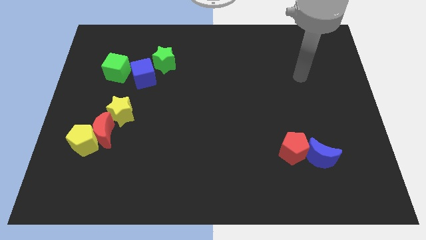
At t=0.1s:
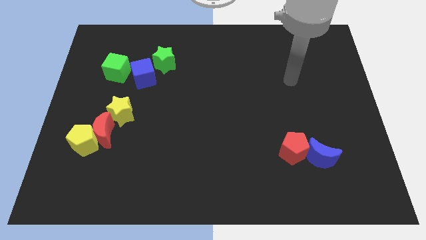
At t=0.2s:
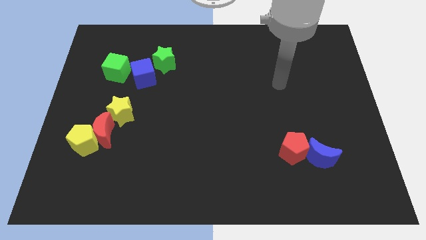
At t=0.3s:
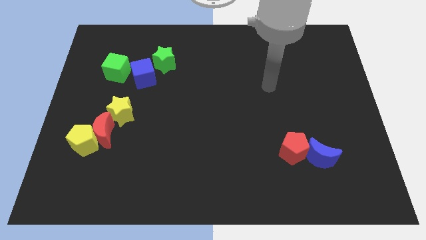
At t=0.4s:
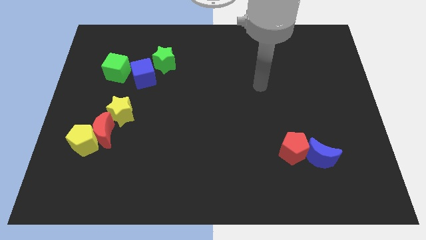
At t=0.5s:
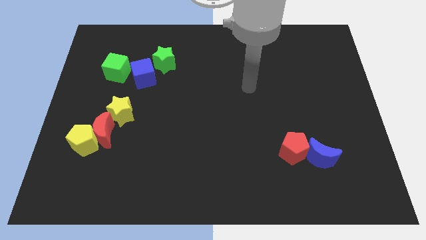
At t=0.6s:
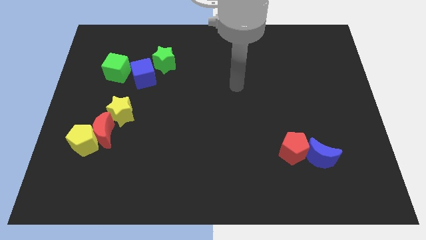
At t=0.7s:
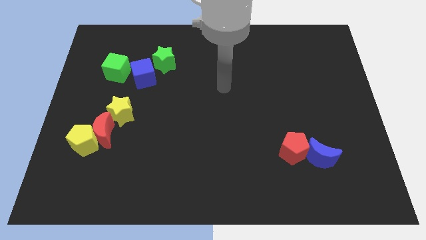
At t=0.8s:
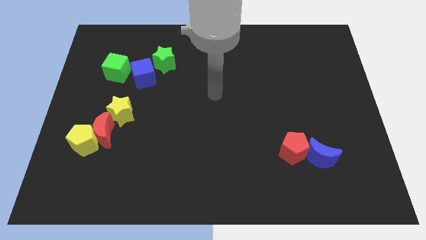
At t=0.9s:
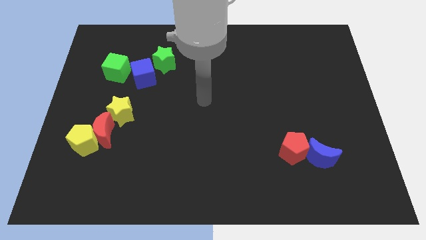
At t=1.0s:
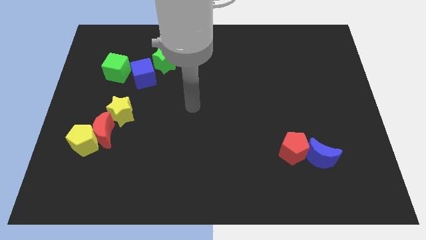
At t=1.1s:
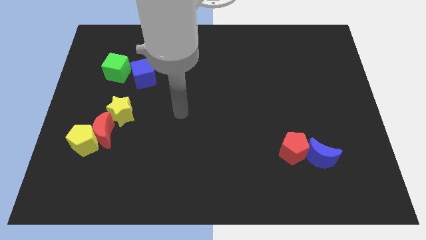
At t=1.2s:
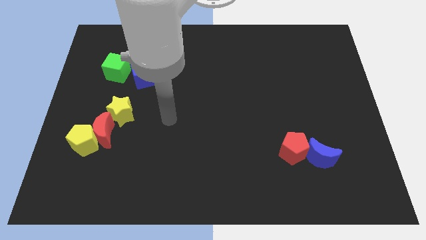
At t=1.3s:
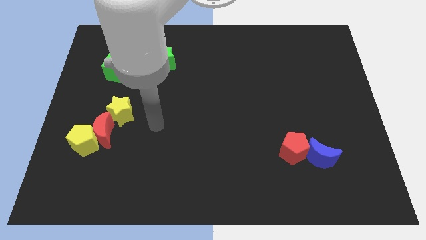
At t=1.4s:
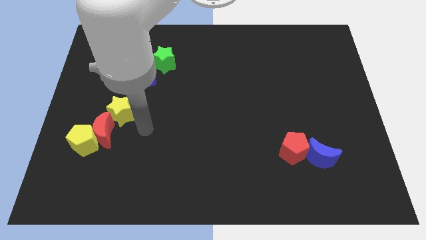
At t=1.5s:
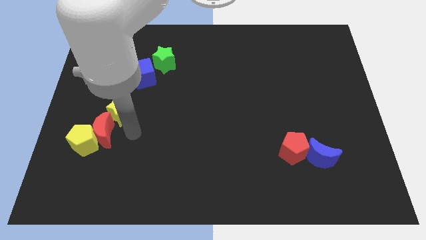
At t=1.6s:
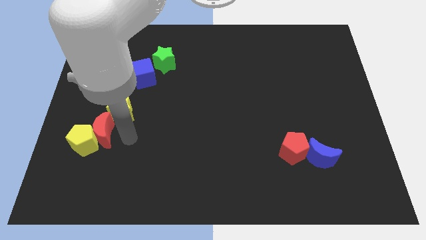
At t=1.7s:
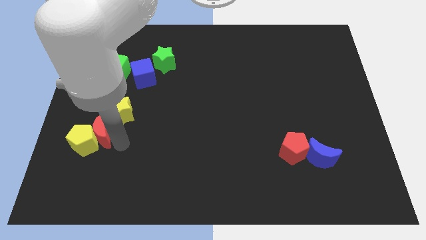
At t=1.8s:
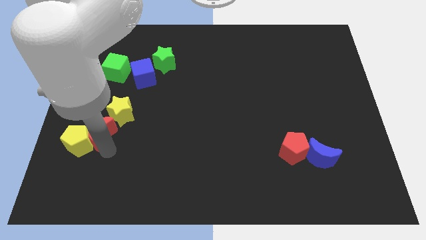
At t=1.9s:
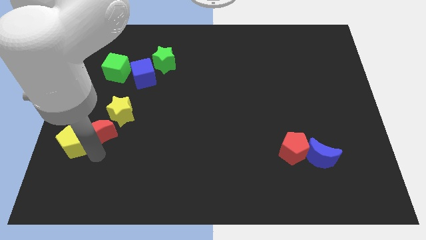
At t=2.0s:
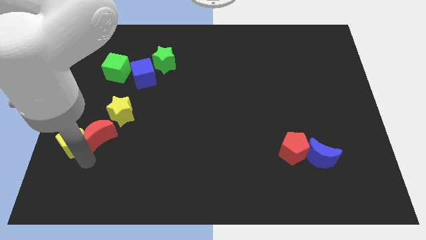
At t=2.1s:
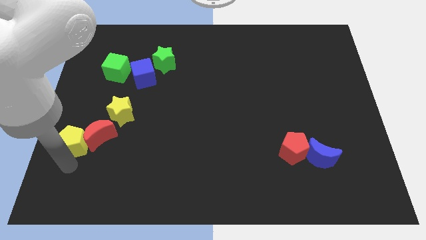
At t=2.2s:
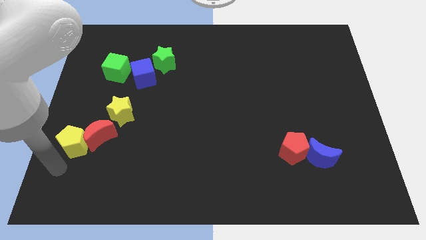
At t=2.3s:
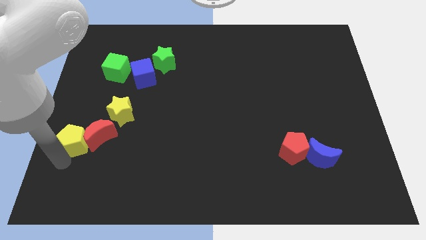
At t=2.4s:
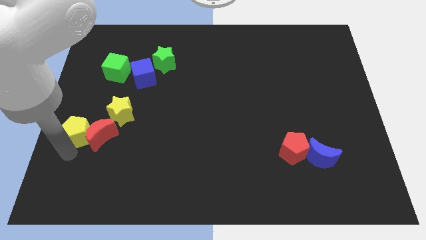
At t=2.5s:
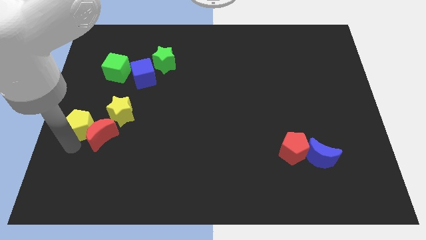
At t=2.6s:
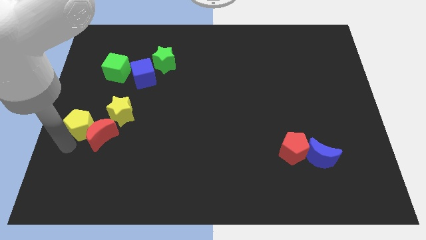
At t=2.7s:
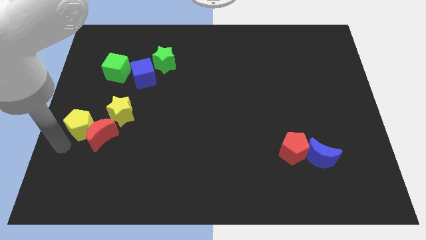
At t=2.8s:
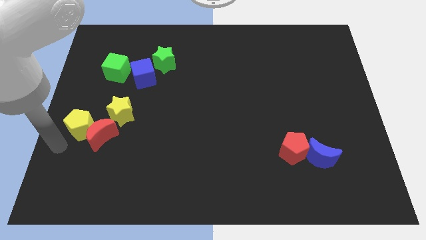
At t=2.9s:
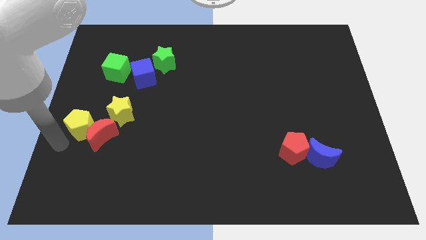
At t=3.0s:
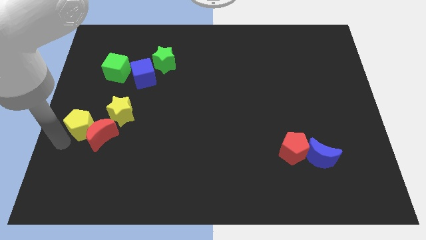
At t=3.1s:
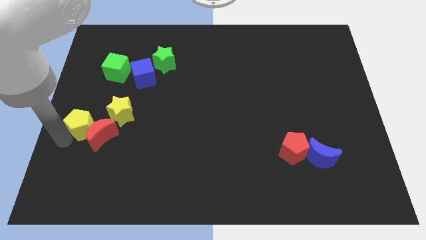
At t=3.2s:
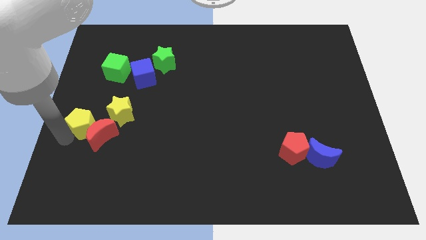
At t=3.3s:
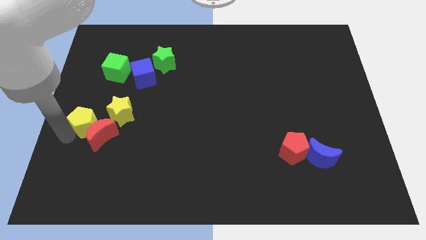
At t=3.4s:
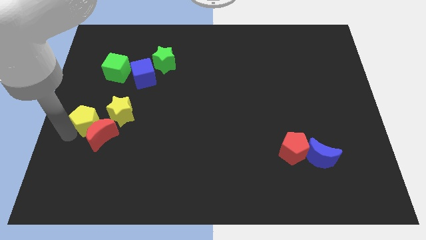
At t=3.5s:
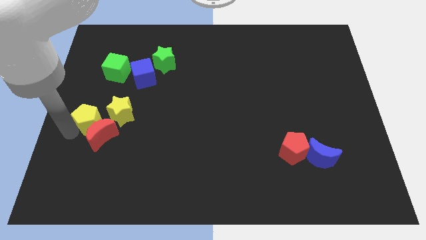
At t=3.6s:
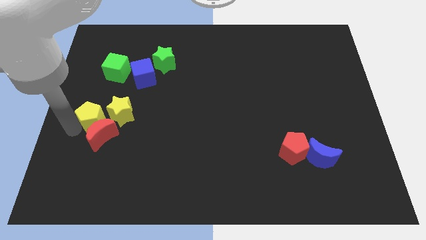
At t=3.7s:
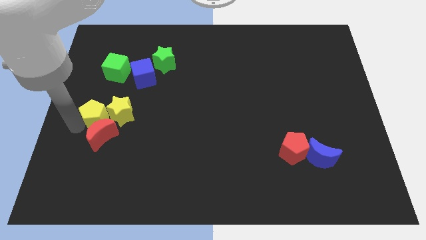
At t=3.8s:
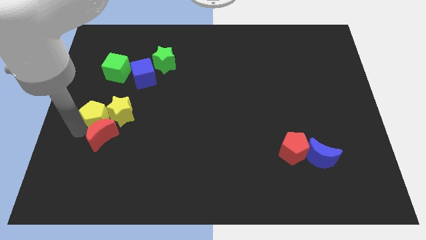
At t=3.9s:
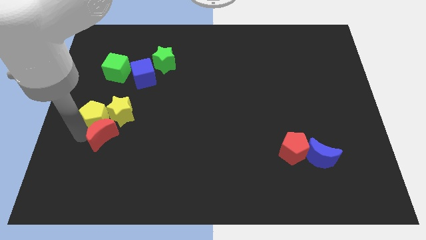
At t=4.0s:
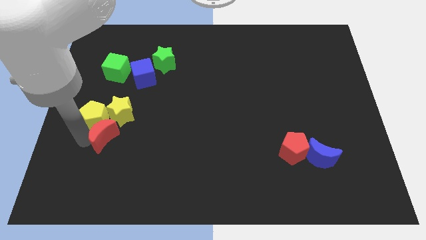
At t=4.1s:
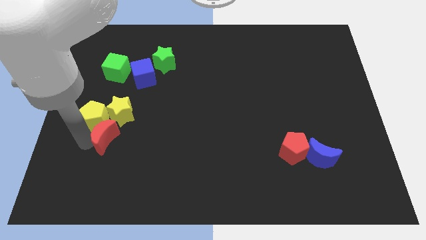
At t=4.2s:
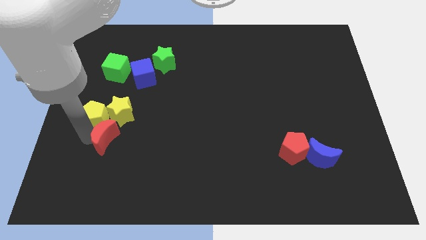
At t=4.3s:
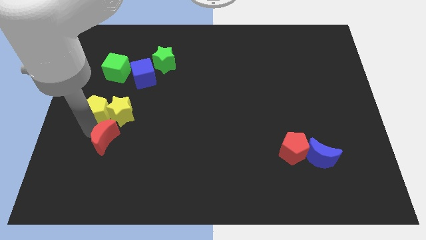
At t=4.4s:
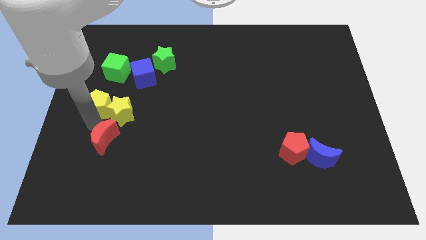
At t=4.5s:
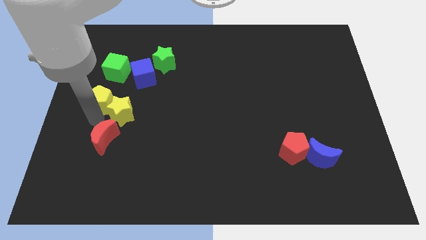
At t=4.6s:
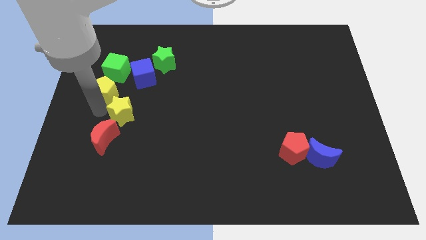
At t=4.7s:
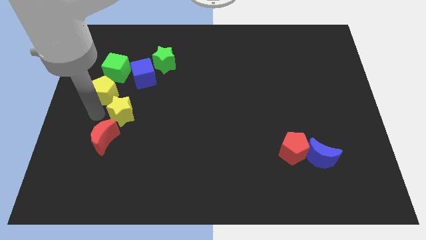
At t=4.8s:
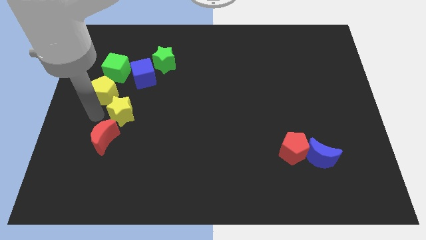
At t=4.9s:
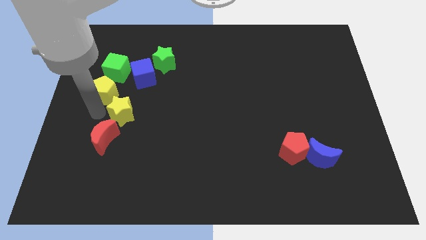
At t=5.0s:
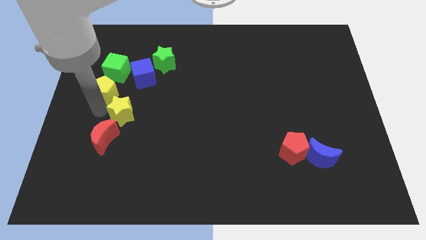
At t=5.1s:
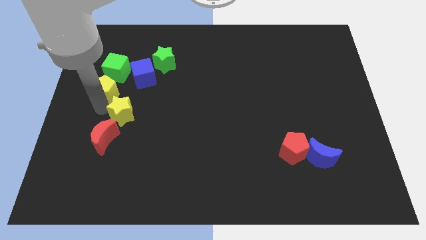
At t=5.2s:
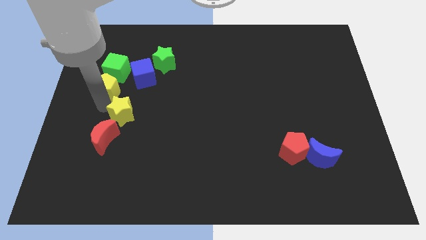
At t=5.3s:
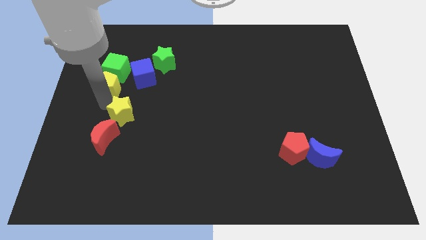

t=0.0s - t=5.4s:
push the yellow pentagon towards the green cube

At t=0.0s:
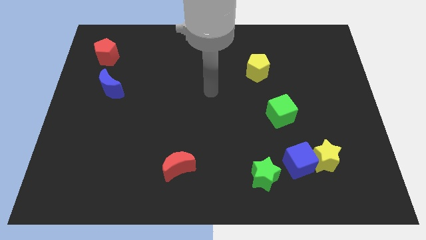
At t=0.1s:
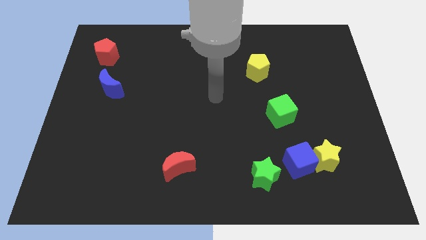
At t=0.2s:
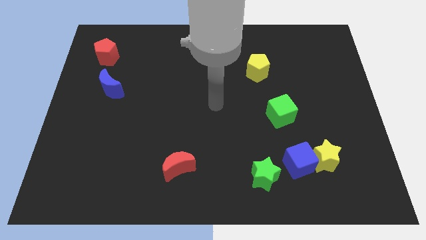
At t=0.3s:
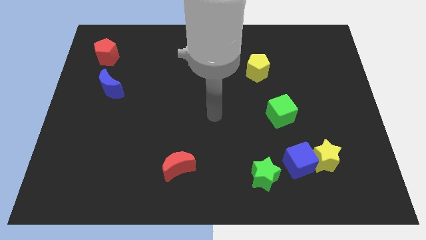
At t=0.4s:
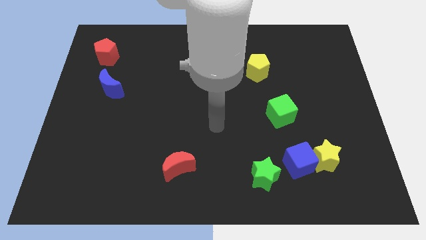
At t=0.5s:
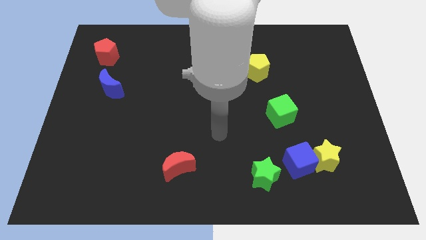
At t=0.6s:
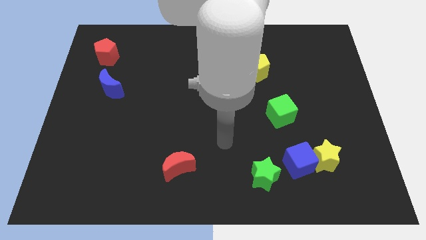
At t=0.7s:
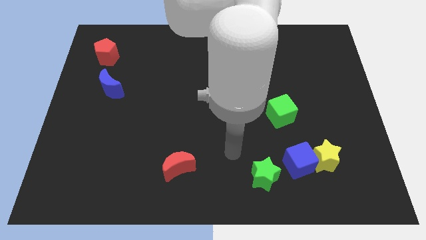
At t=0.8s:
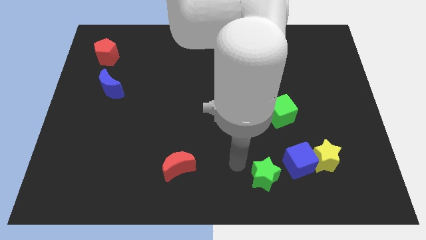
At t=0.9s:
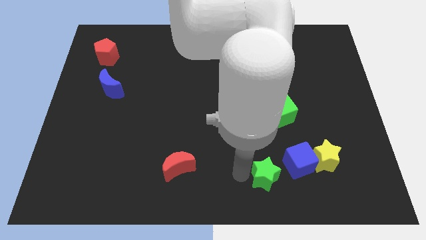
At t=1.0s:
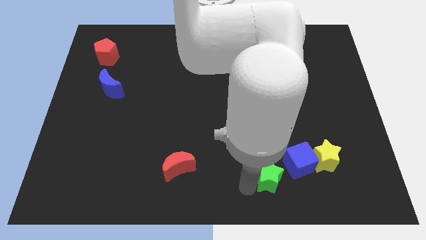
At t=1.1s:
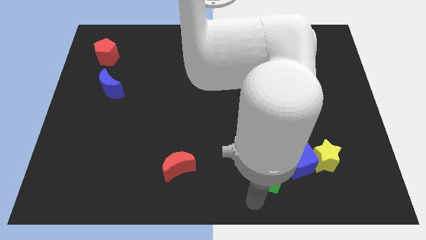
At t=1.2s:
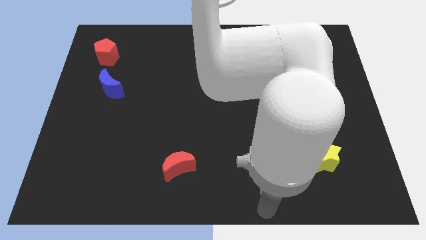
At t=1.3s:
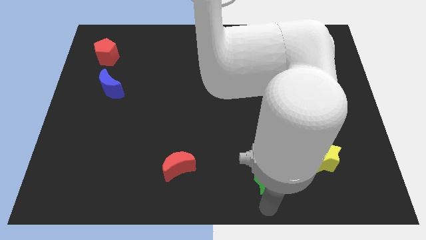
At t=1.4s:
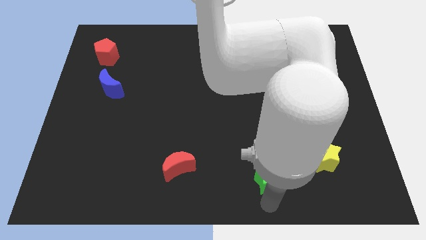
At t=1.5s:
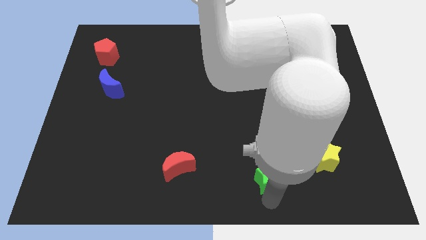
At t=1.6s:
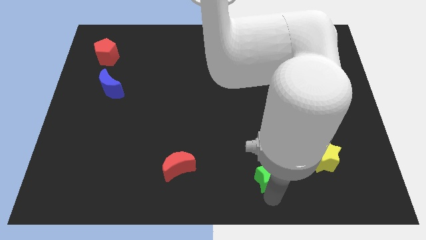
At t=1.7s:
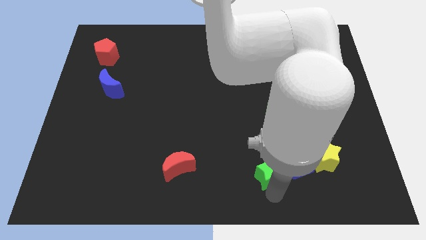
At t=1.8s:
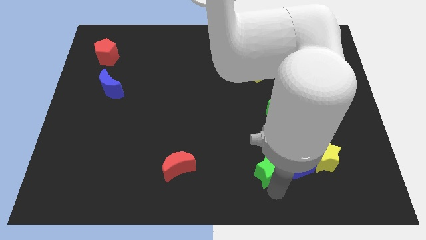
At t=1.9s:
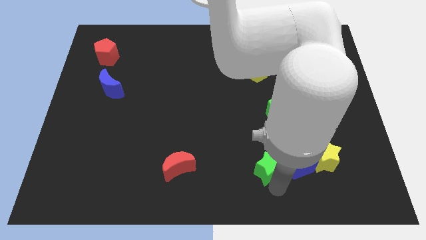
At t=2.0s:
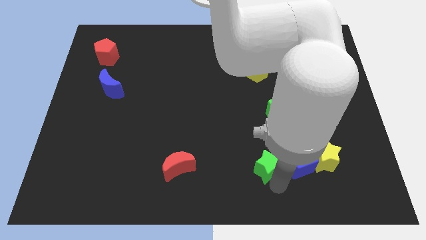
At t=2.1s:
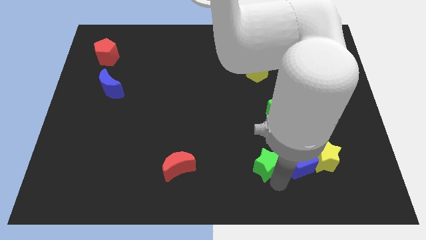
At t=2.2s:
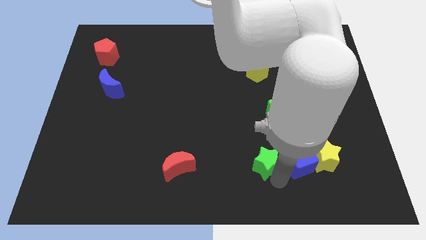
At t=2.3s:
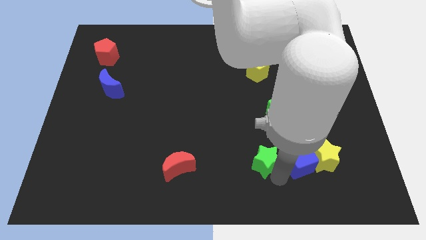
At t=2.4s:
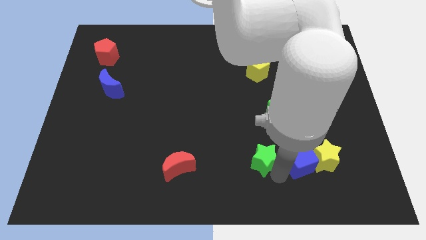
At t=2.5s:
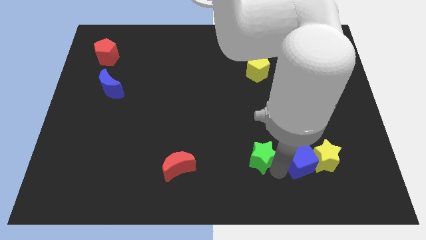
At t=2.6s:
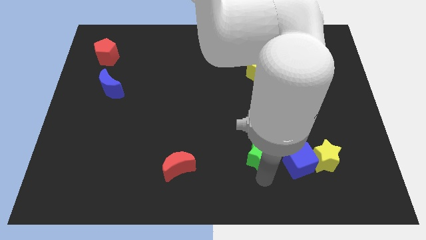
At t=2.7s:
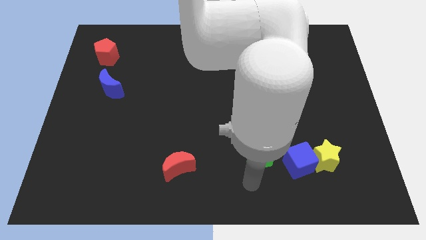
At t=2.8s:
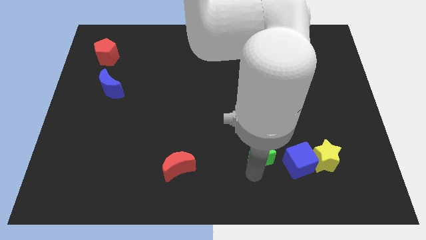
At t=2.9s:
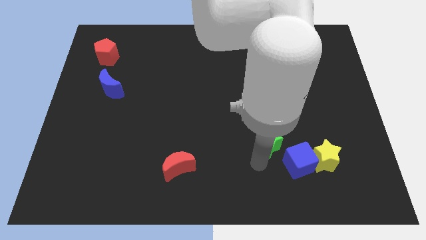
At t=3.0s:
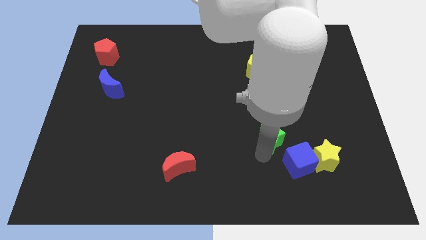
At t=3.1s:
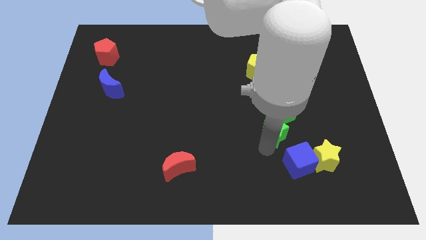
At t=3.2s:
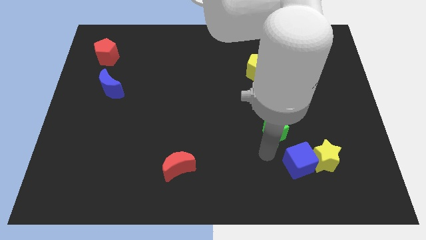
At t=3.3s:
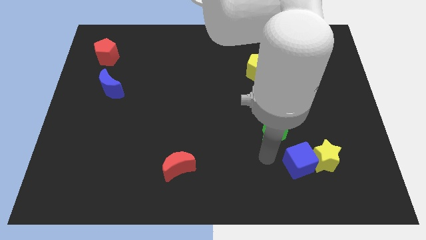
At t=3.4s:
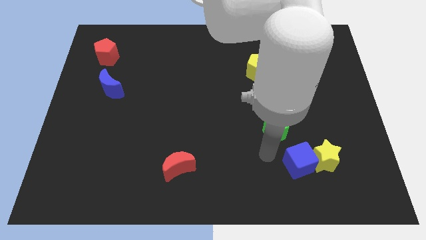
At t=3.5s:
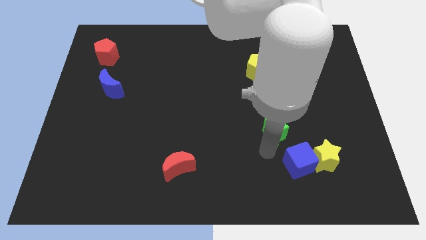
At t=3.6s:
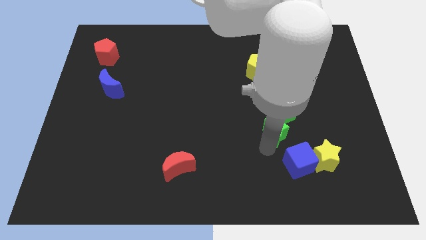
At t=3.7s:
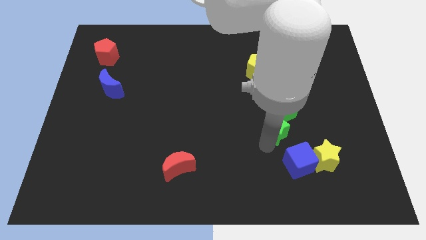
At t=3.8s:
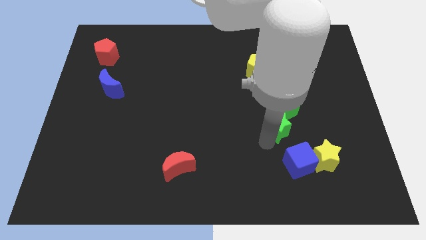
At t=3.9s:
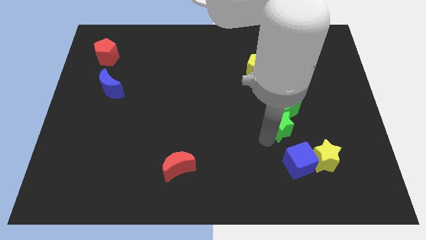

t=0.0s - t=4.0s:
slide the green star towards the green cube
